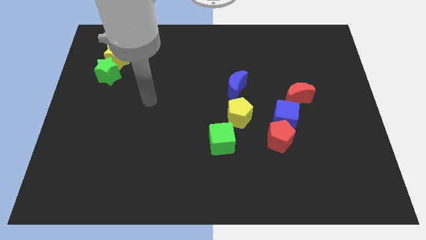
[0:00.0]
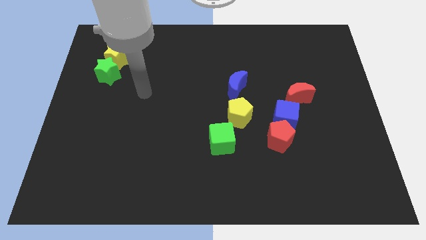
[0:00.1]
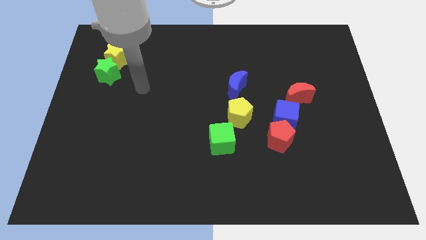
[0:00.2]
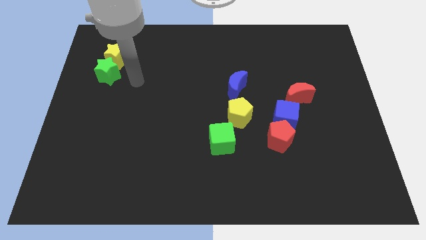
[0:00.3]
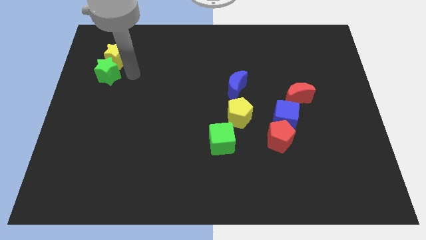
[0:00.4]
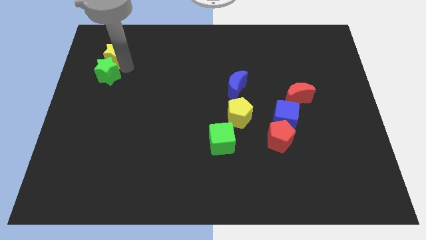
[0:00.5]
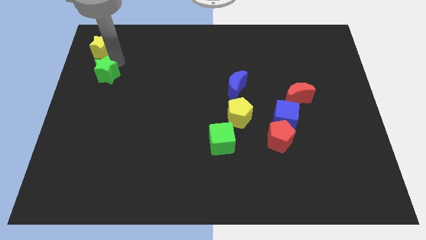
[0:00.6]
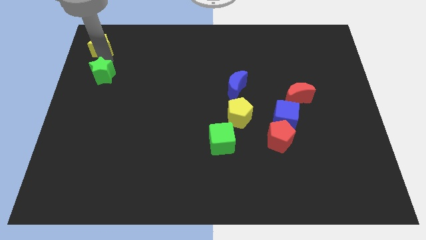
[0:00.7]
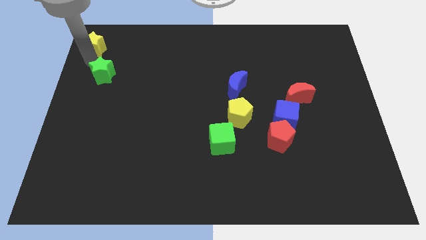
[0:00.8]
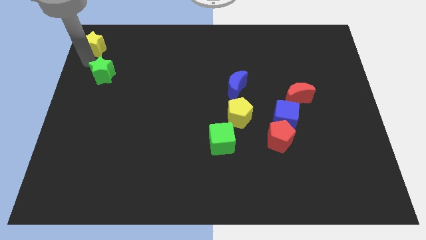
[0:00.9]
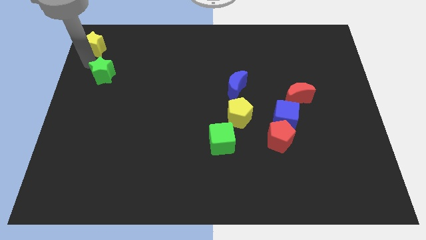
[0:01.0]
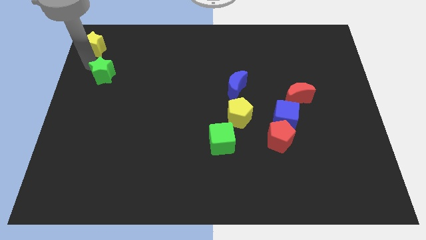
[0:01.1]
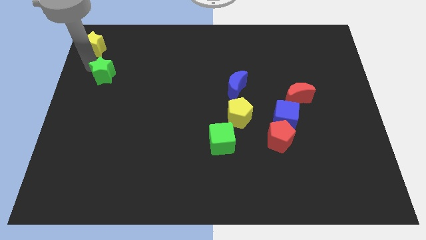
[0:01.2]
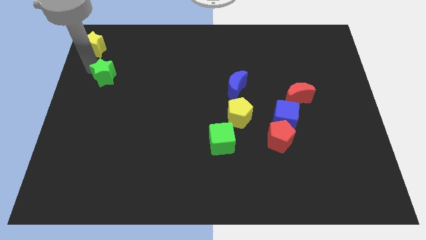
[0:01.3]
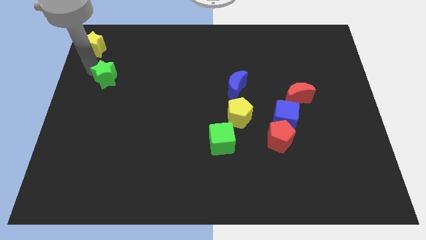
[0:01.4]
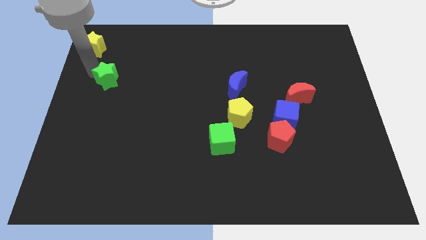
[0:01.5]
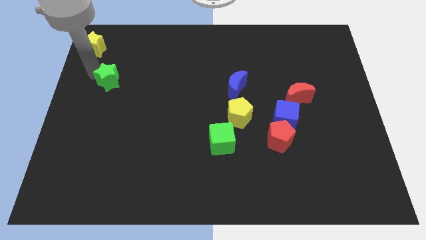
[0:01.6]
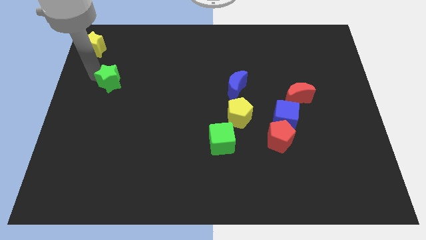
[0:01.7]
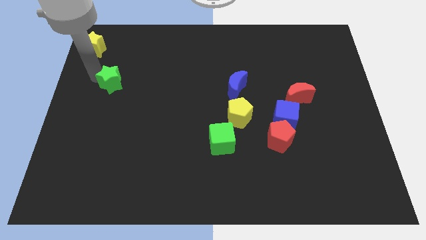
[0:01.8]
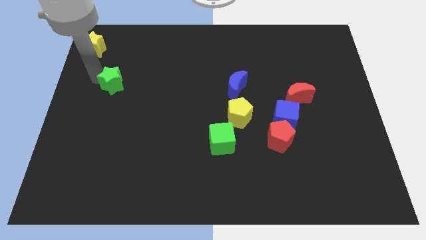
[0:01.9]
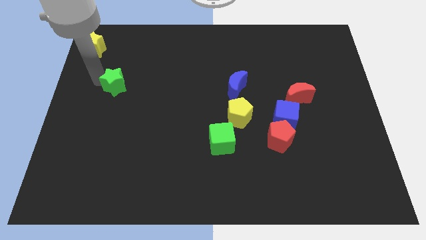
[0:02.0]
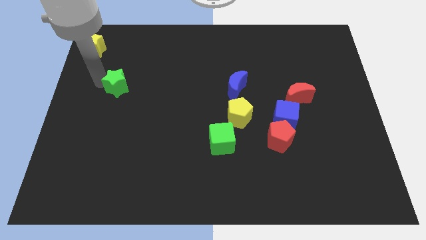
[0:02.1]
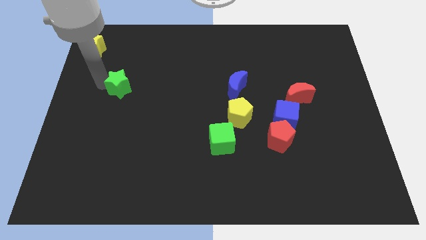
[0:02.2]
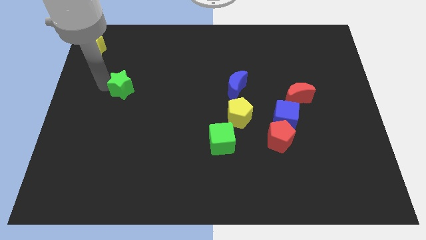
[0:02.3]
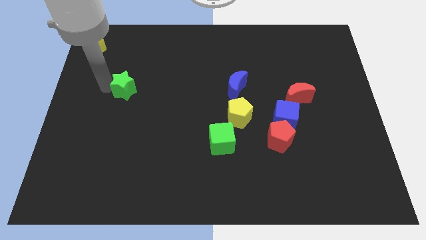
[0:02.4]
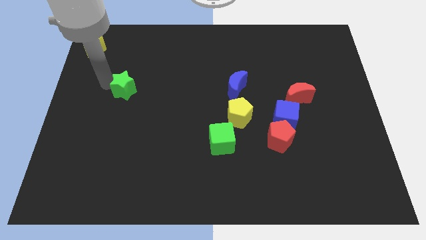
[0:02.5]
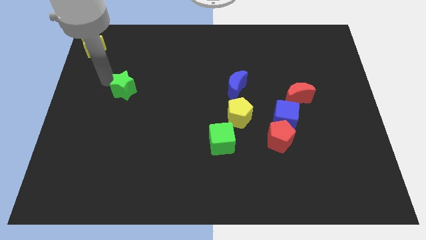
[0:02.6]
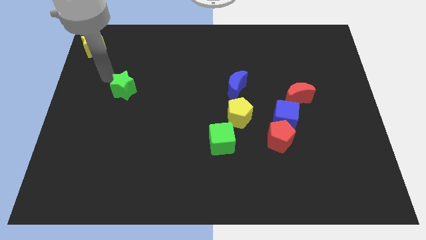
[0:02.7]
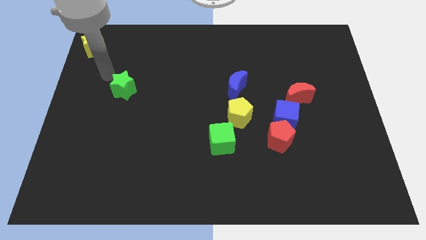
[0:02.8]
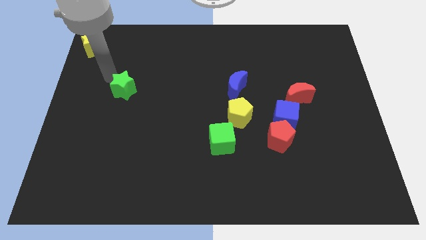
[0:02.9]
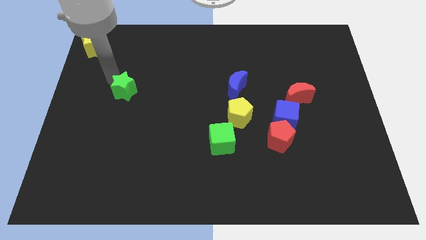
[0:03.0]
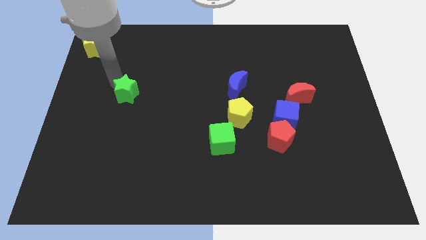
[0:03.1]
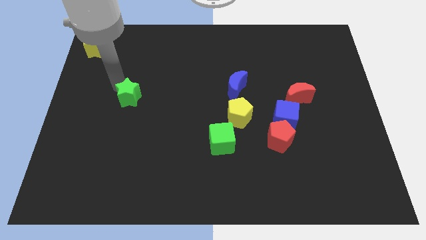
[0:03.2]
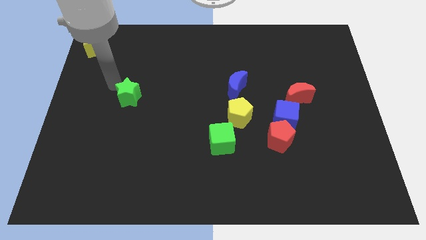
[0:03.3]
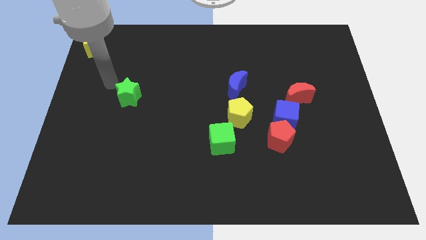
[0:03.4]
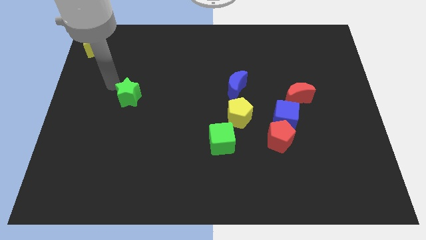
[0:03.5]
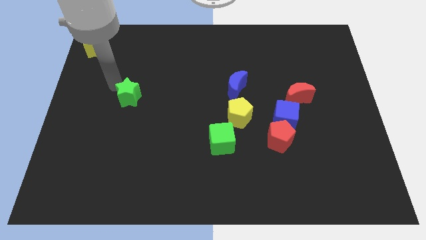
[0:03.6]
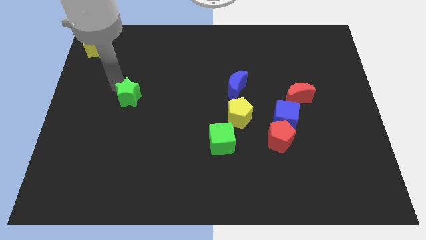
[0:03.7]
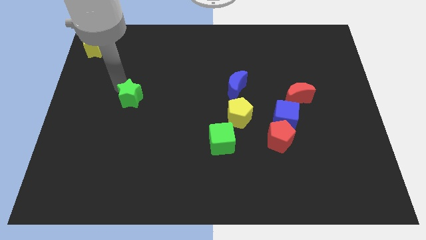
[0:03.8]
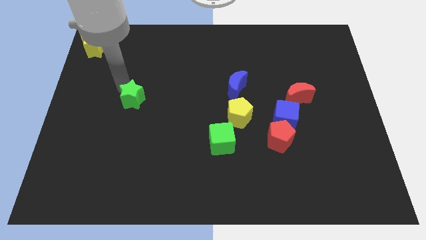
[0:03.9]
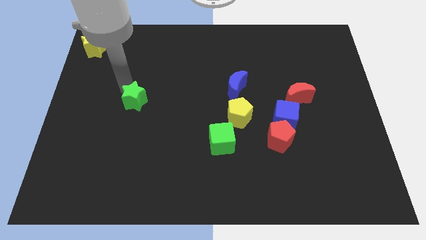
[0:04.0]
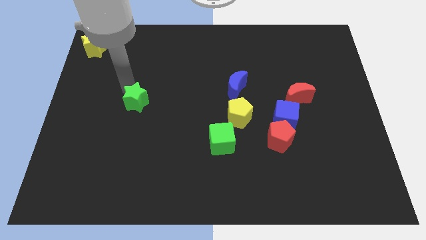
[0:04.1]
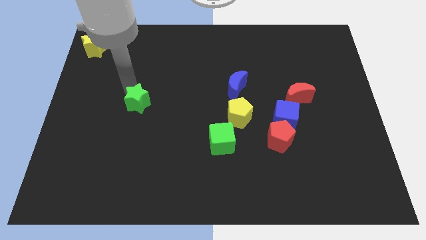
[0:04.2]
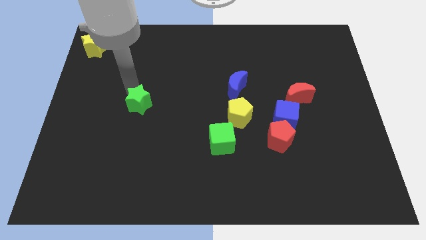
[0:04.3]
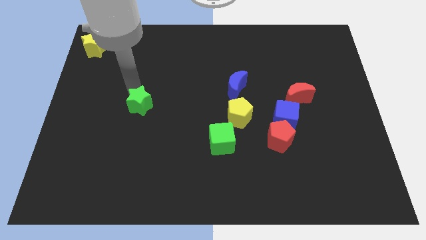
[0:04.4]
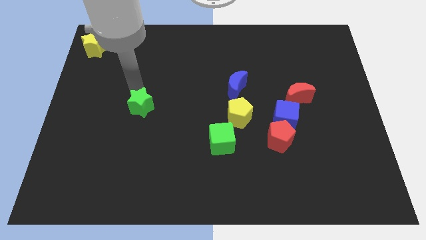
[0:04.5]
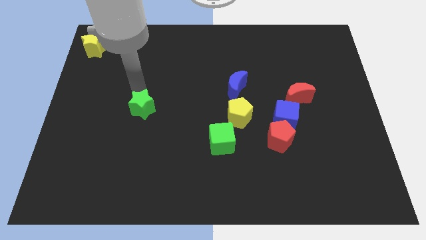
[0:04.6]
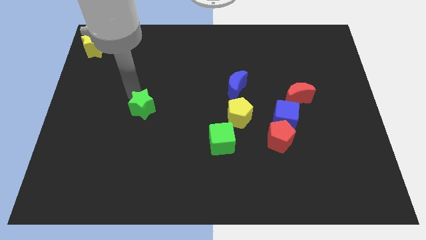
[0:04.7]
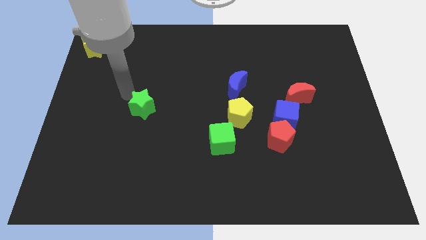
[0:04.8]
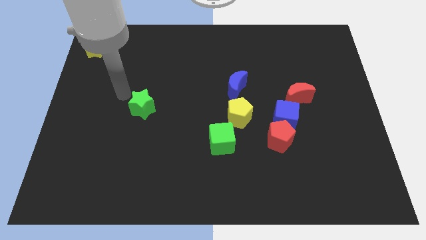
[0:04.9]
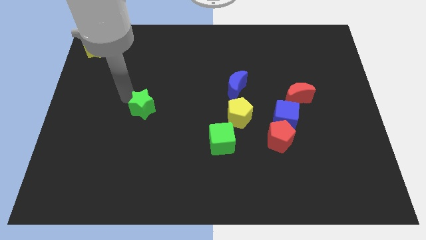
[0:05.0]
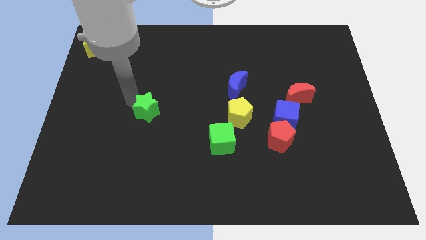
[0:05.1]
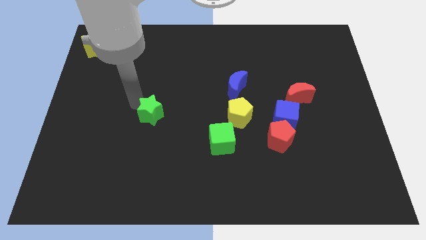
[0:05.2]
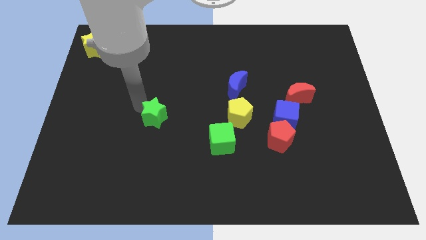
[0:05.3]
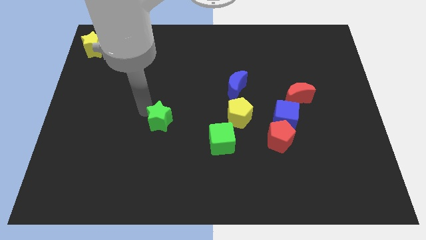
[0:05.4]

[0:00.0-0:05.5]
slide the green star down and to the right diagonally

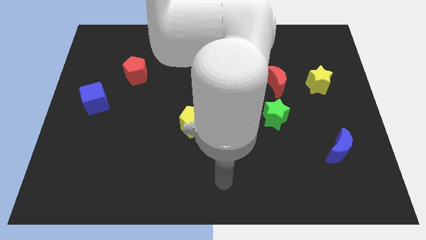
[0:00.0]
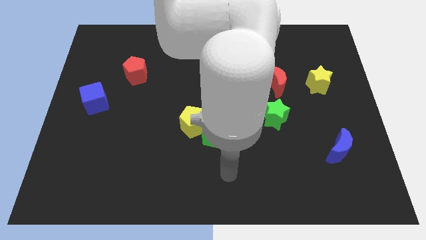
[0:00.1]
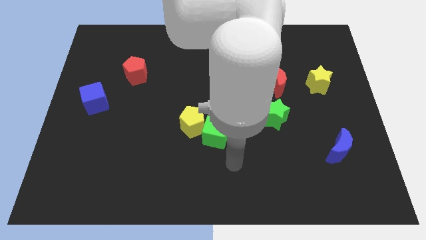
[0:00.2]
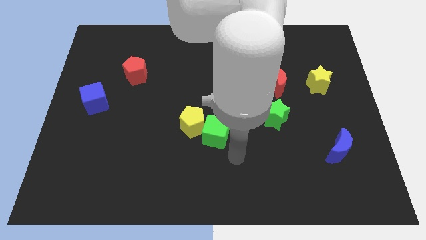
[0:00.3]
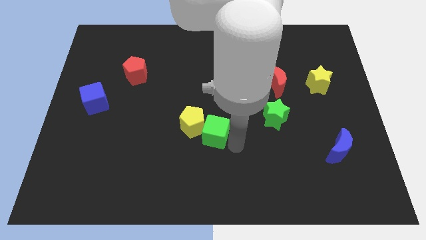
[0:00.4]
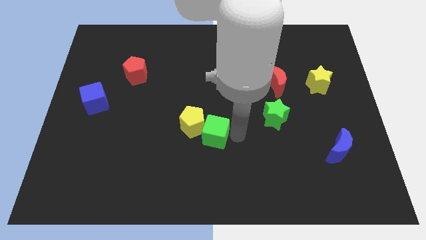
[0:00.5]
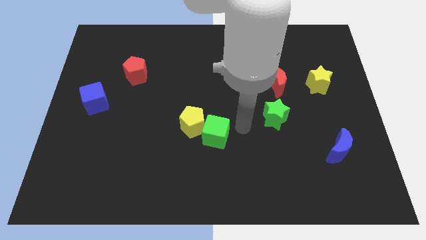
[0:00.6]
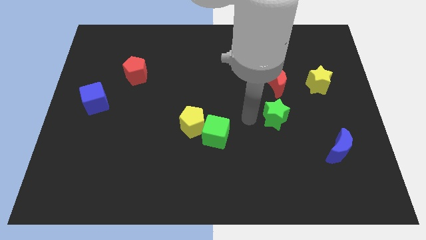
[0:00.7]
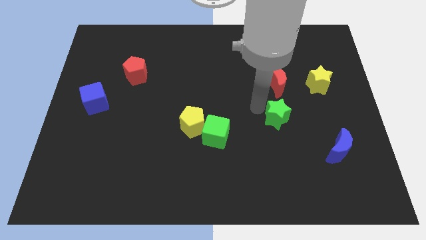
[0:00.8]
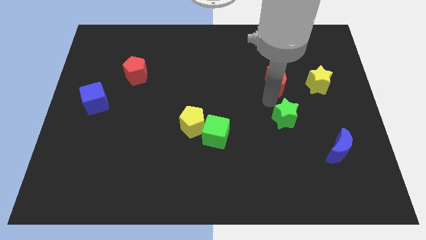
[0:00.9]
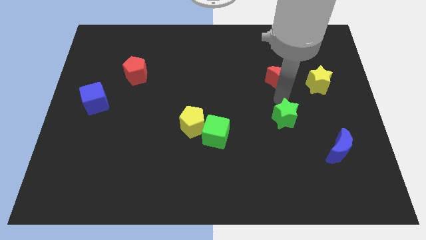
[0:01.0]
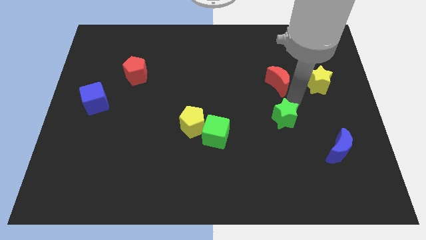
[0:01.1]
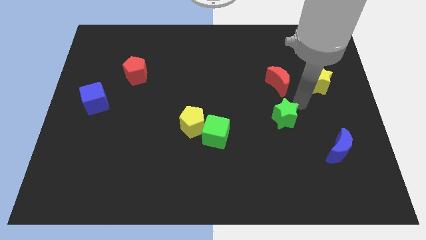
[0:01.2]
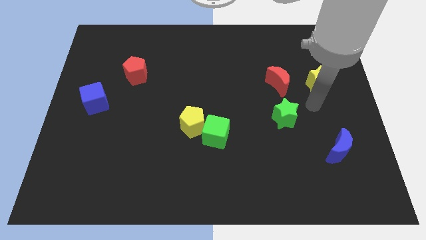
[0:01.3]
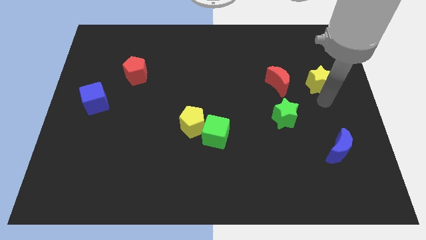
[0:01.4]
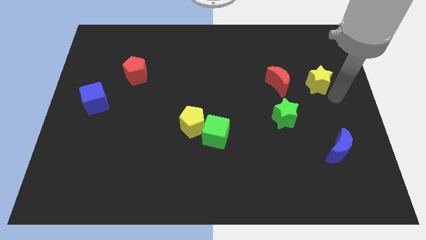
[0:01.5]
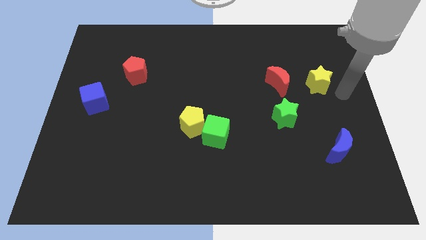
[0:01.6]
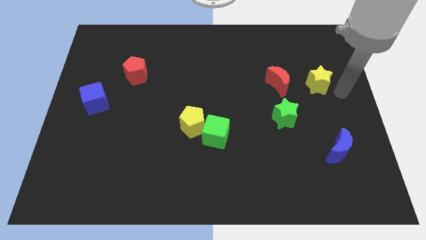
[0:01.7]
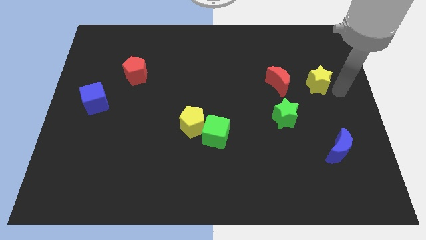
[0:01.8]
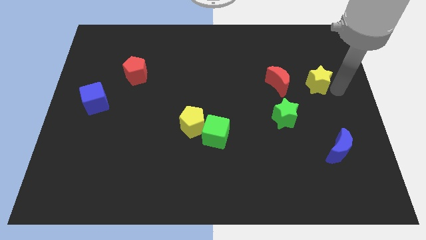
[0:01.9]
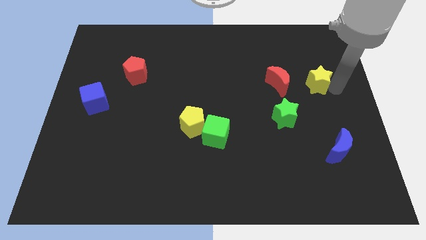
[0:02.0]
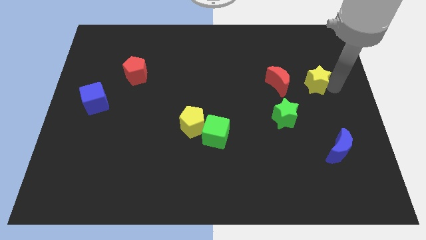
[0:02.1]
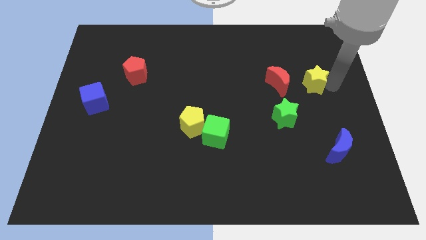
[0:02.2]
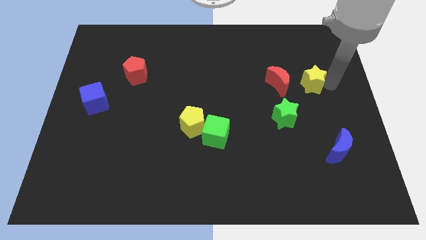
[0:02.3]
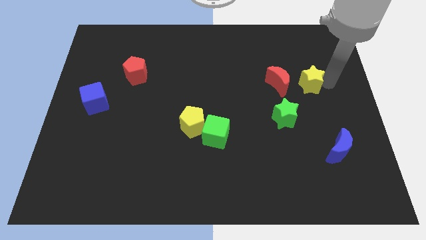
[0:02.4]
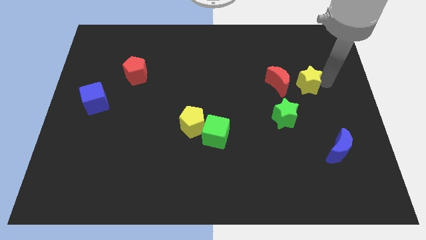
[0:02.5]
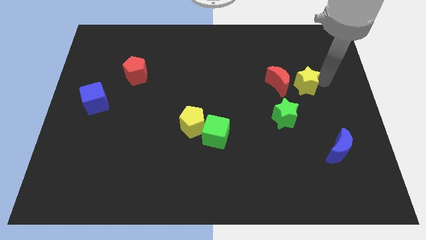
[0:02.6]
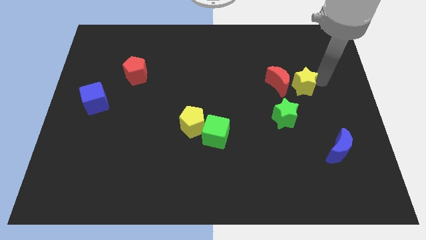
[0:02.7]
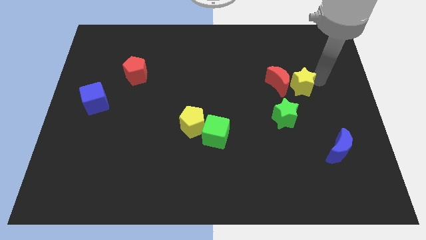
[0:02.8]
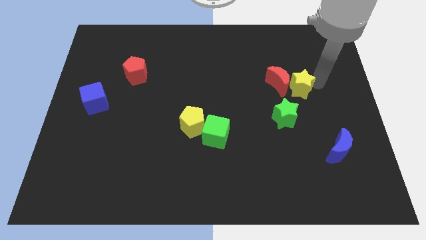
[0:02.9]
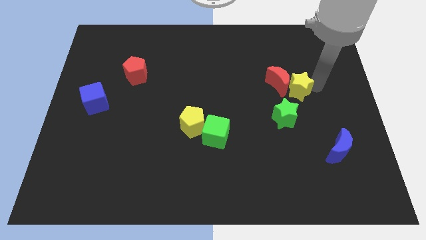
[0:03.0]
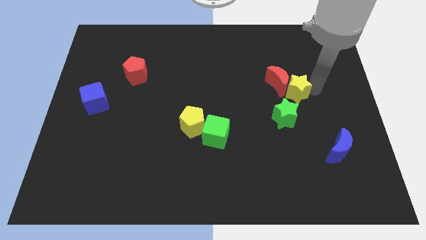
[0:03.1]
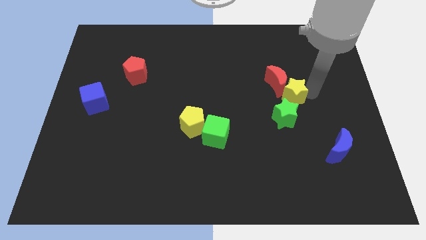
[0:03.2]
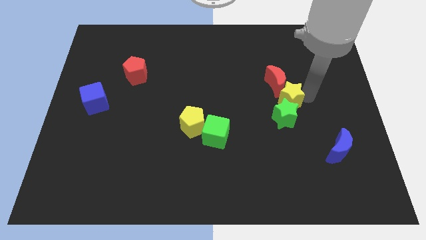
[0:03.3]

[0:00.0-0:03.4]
slightly push the yellow star to the left
